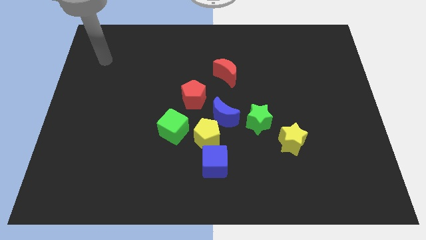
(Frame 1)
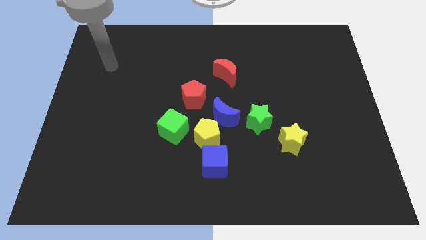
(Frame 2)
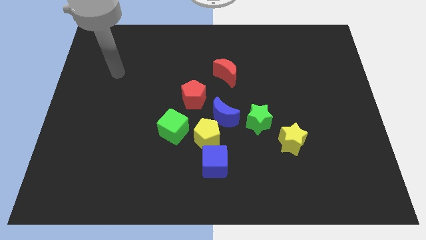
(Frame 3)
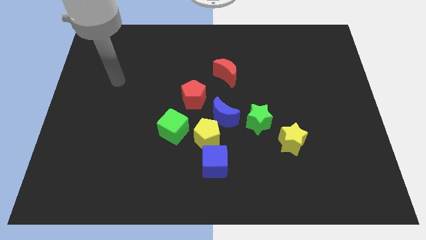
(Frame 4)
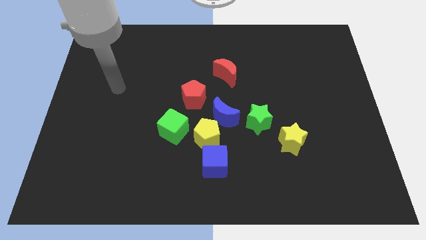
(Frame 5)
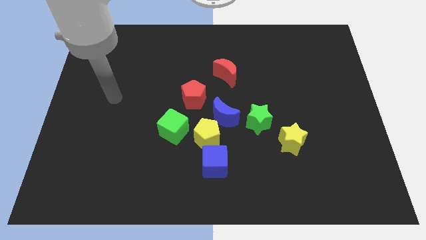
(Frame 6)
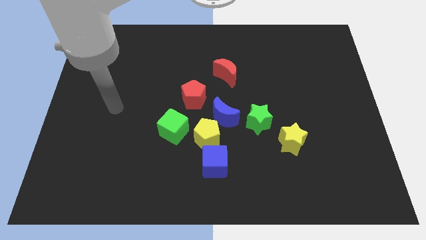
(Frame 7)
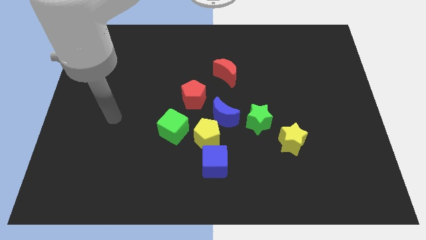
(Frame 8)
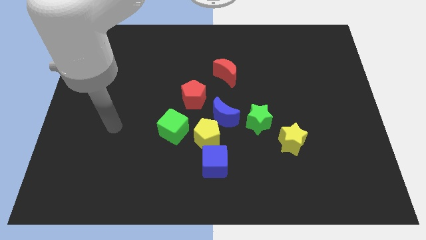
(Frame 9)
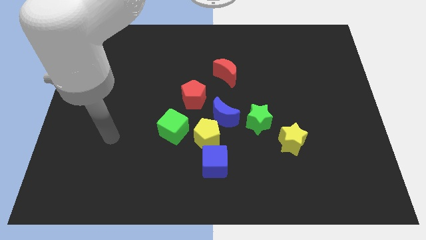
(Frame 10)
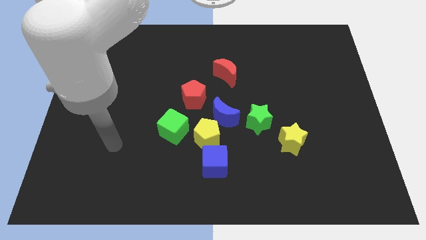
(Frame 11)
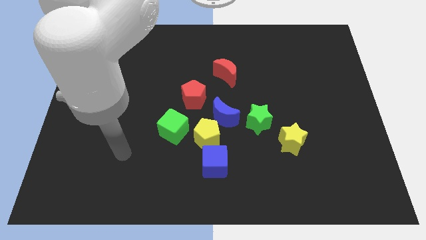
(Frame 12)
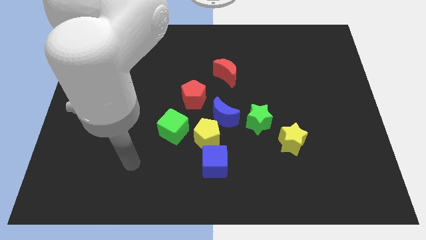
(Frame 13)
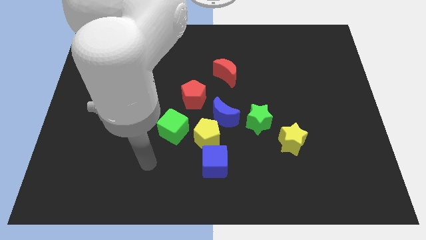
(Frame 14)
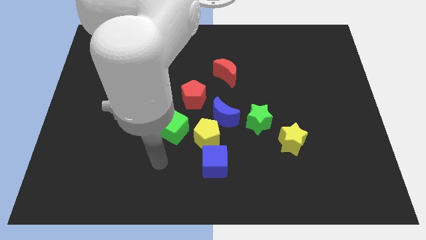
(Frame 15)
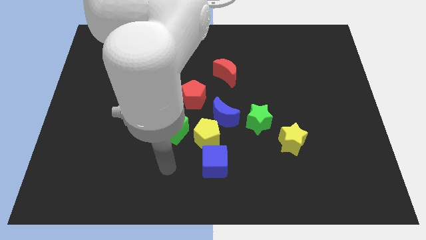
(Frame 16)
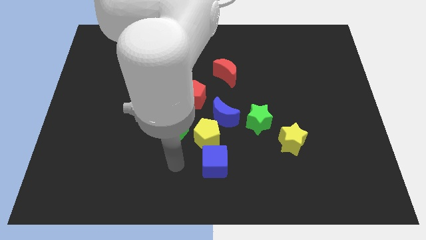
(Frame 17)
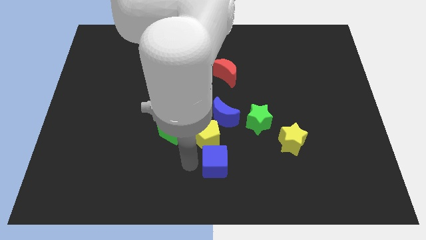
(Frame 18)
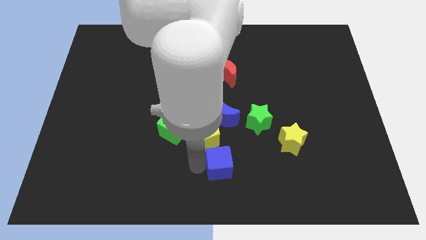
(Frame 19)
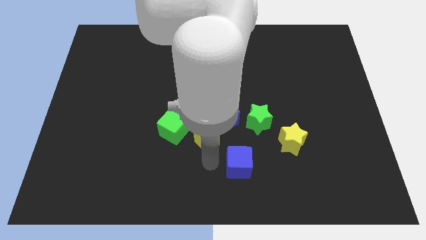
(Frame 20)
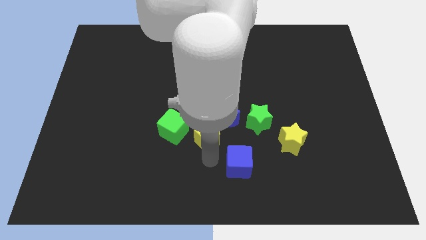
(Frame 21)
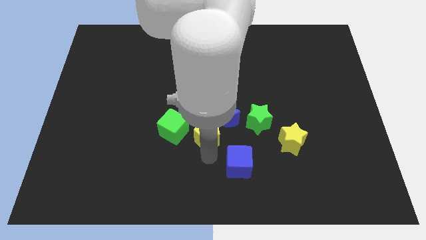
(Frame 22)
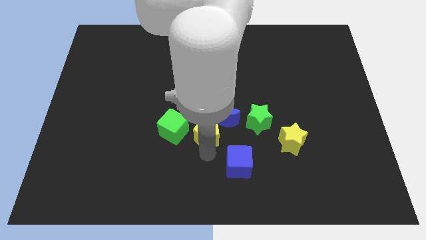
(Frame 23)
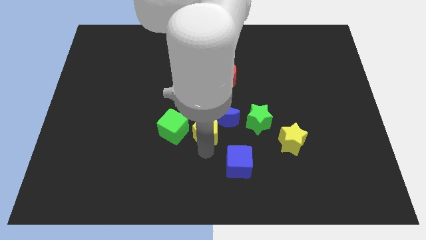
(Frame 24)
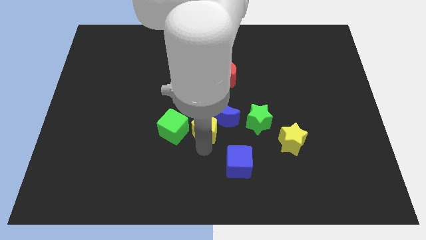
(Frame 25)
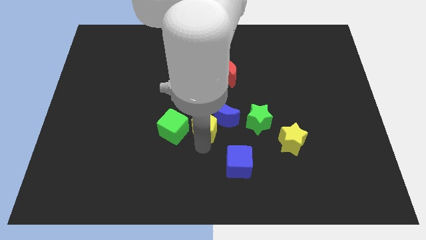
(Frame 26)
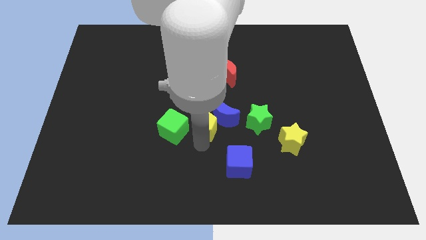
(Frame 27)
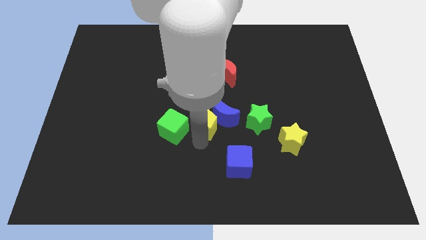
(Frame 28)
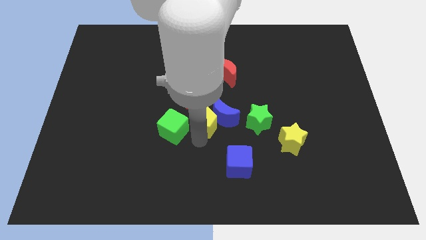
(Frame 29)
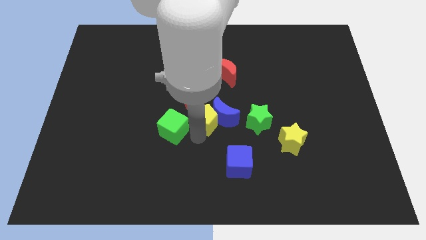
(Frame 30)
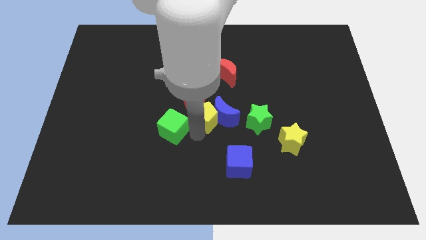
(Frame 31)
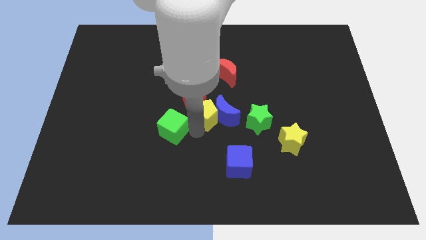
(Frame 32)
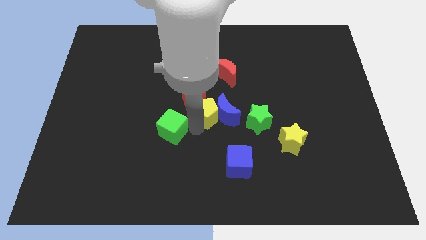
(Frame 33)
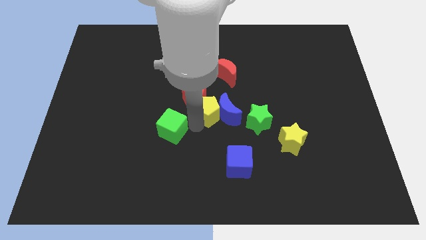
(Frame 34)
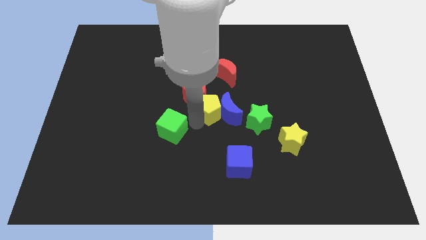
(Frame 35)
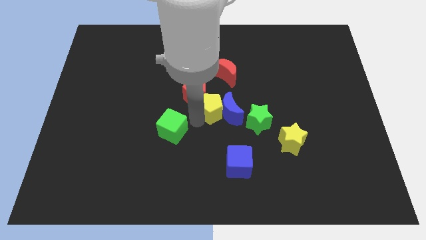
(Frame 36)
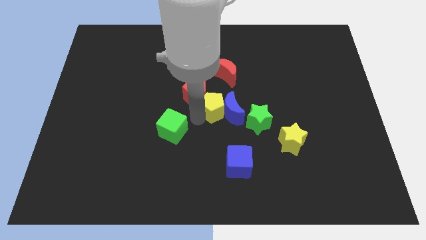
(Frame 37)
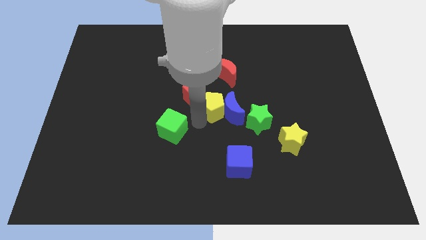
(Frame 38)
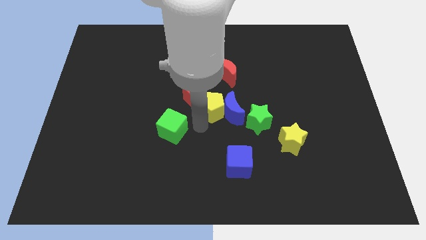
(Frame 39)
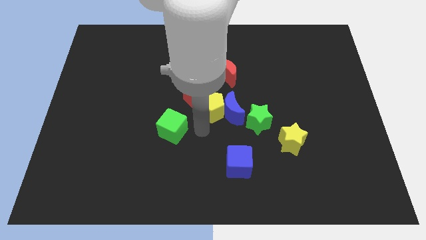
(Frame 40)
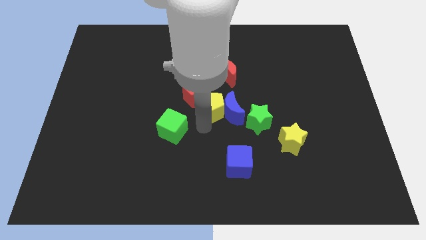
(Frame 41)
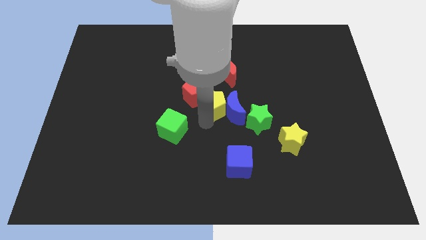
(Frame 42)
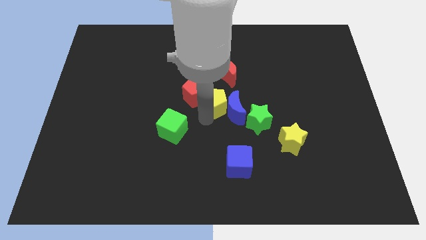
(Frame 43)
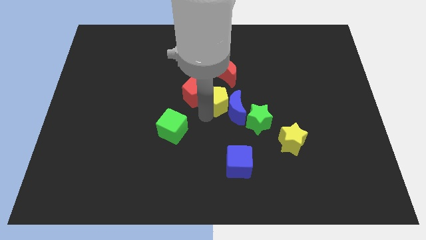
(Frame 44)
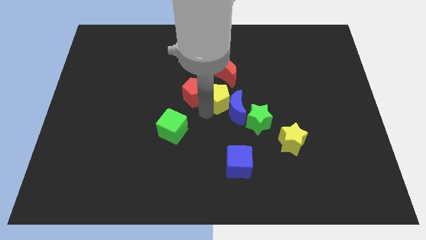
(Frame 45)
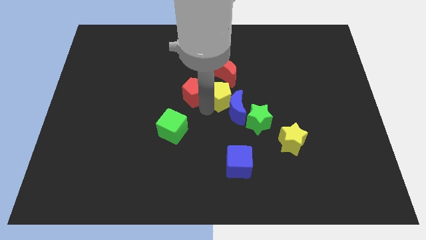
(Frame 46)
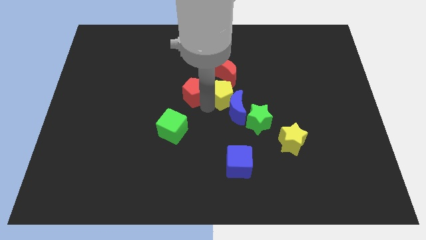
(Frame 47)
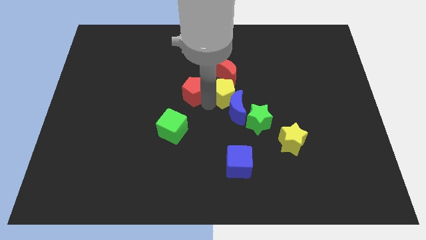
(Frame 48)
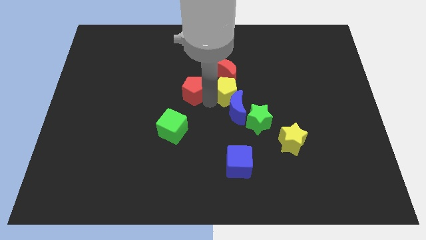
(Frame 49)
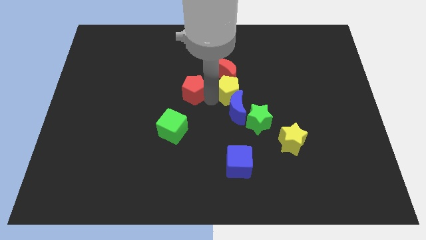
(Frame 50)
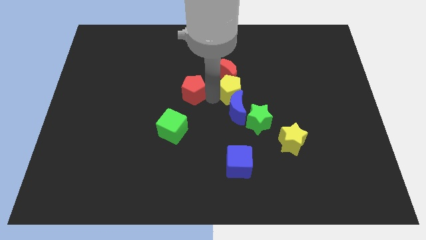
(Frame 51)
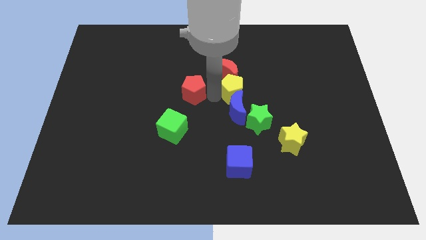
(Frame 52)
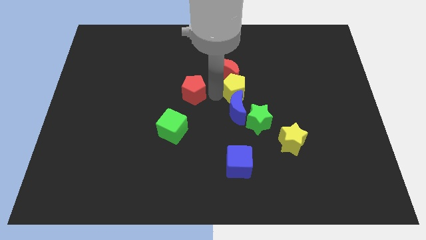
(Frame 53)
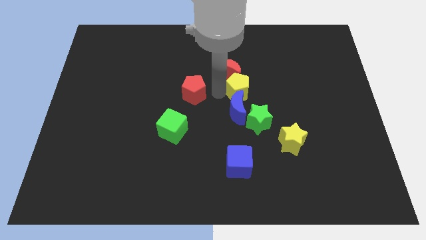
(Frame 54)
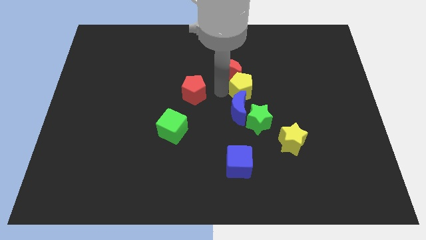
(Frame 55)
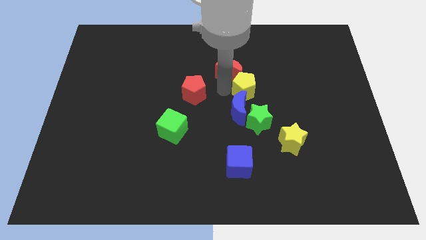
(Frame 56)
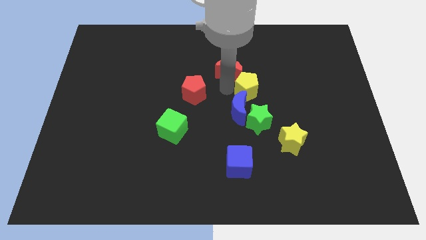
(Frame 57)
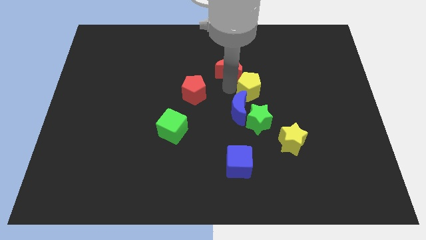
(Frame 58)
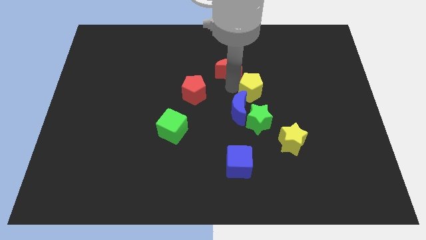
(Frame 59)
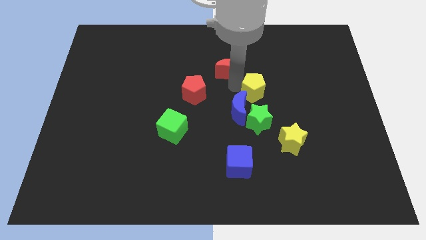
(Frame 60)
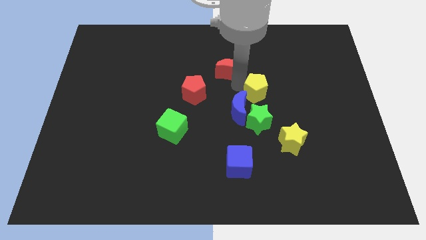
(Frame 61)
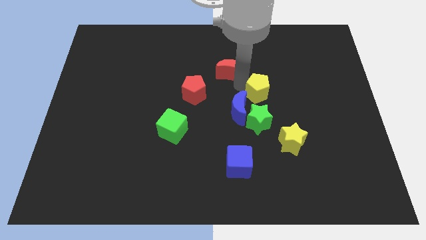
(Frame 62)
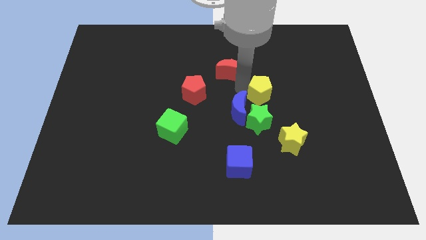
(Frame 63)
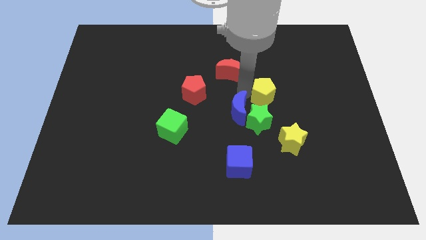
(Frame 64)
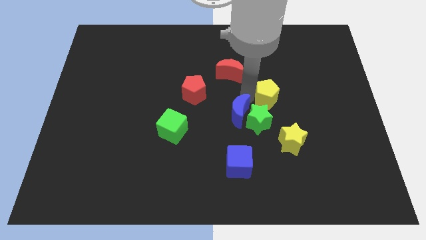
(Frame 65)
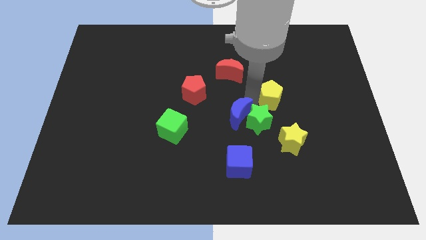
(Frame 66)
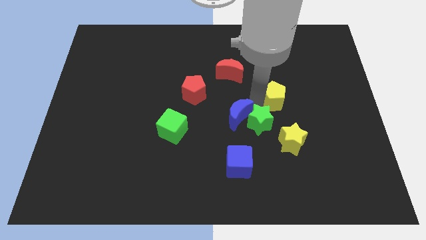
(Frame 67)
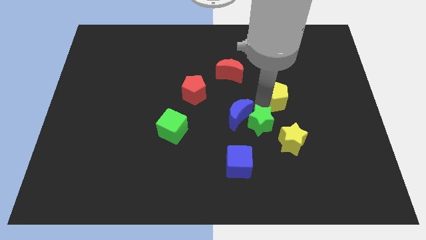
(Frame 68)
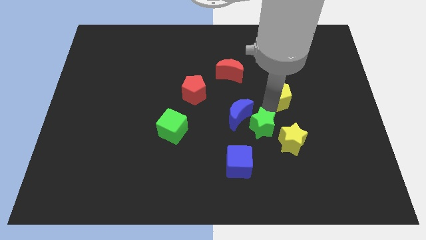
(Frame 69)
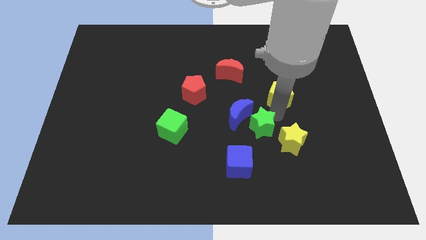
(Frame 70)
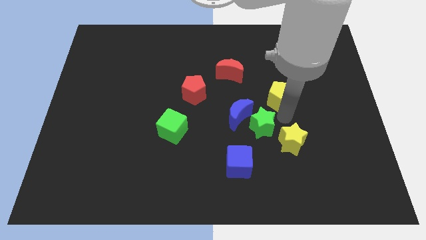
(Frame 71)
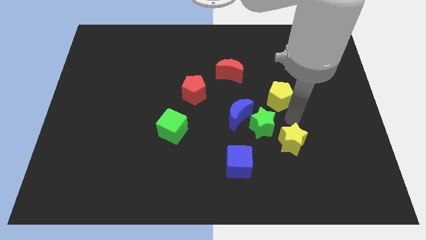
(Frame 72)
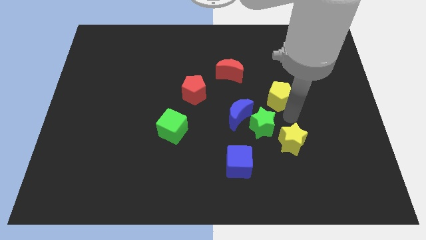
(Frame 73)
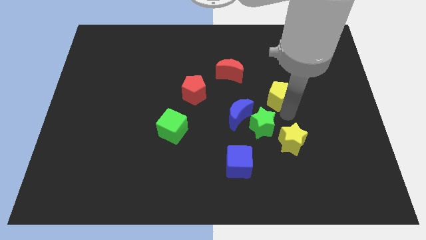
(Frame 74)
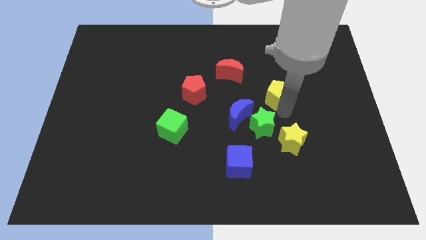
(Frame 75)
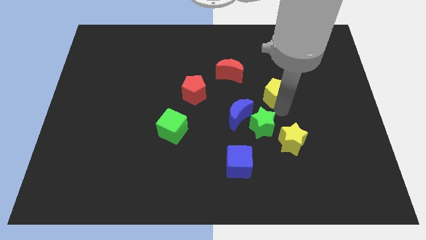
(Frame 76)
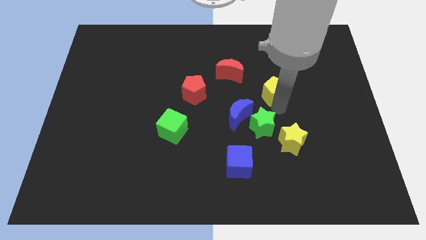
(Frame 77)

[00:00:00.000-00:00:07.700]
push the yellow pentagon upwards and then right

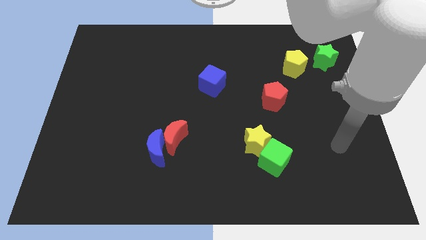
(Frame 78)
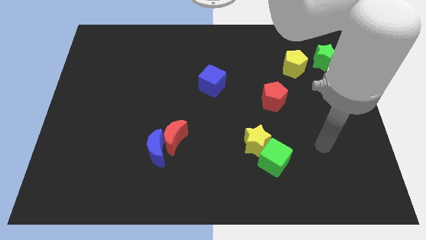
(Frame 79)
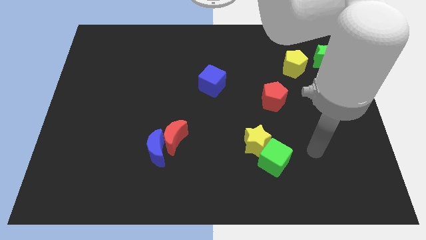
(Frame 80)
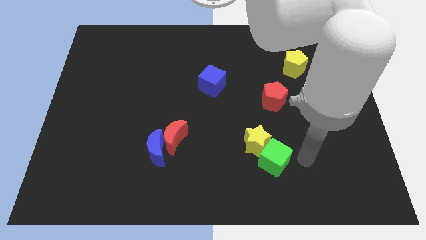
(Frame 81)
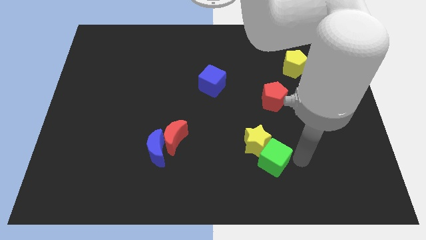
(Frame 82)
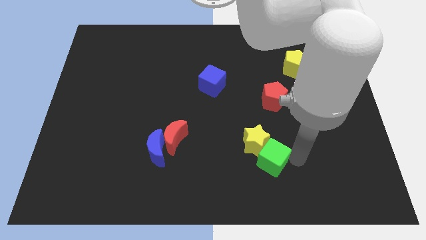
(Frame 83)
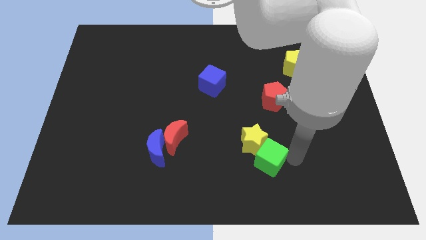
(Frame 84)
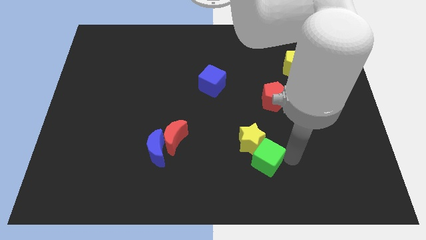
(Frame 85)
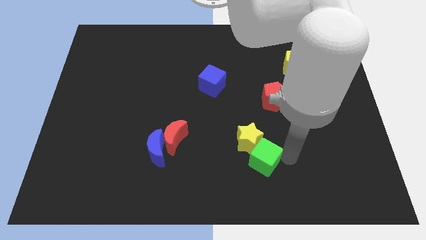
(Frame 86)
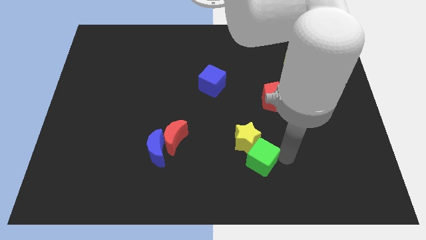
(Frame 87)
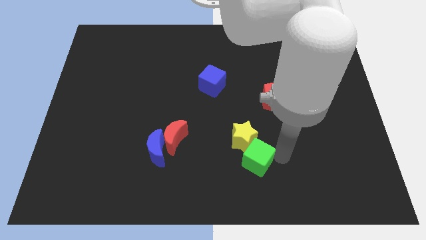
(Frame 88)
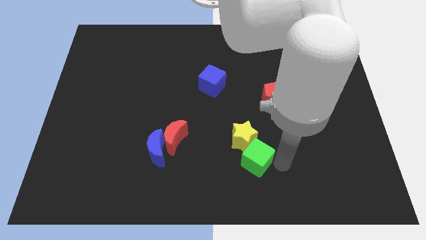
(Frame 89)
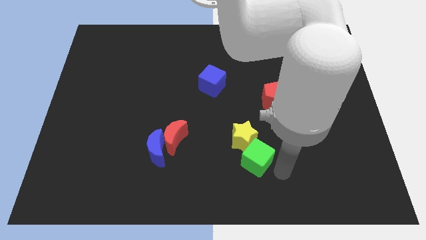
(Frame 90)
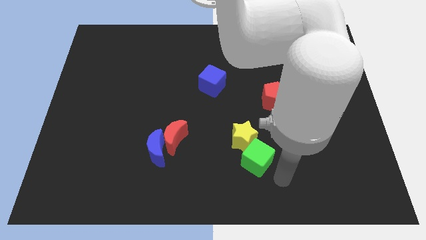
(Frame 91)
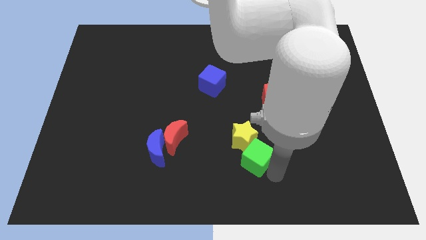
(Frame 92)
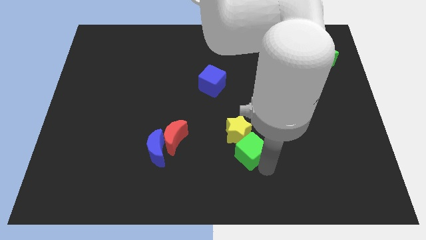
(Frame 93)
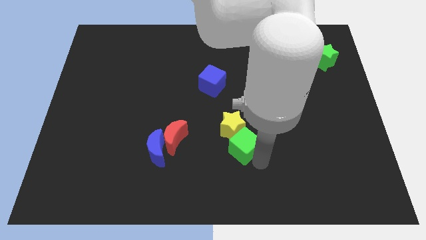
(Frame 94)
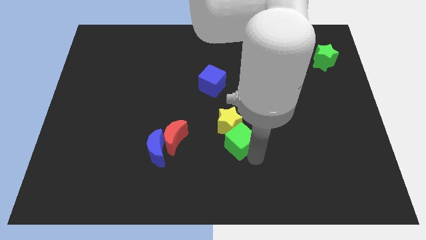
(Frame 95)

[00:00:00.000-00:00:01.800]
slide the green cube a bit up and to the left
